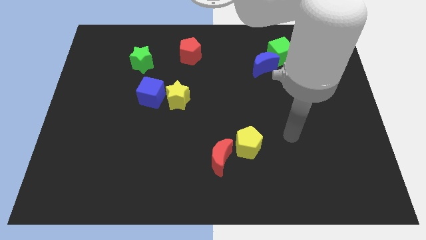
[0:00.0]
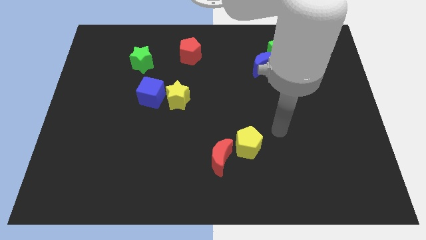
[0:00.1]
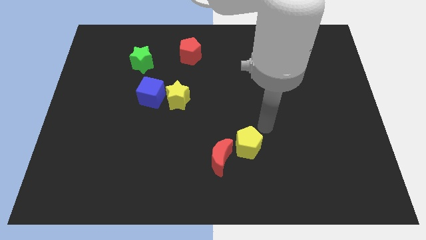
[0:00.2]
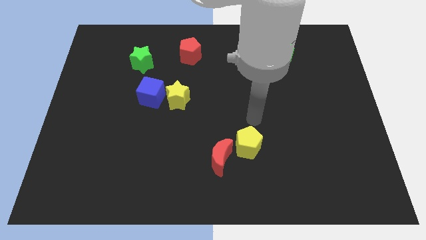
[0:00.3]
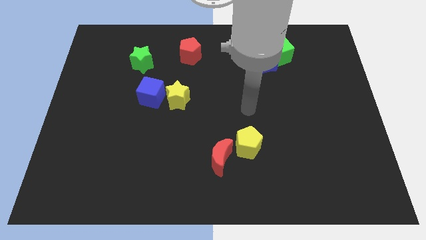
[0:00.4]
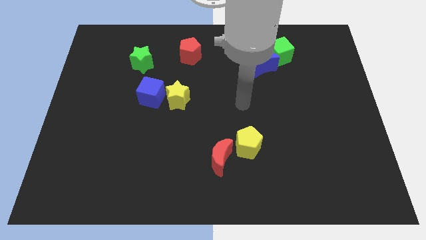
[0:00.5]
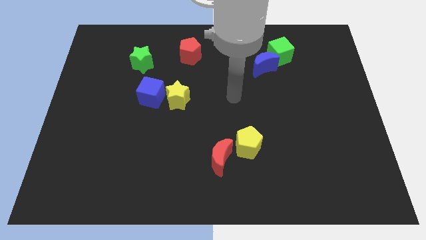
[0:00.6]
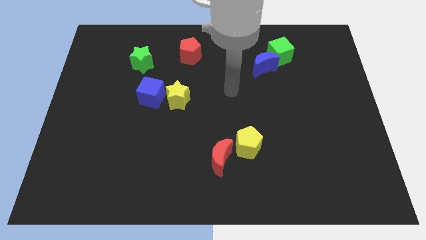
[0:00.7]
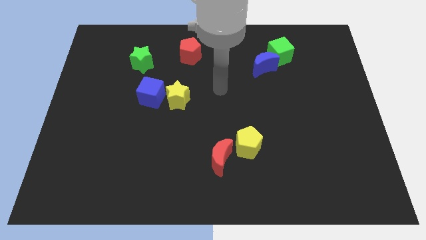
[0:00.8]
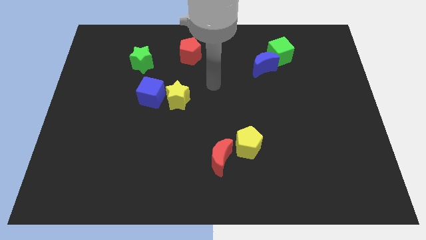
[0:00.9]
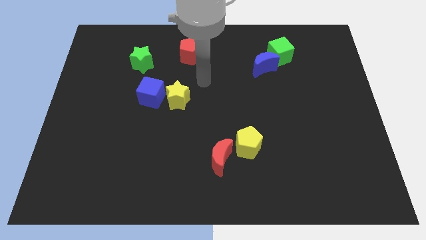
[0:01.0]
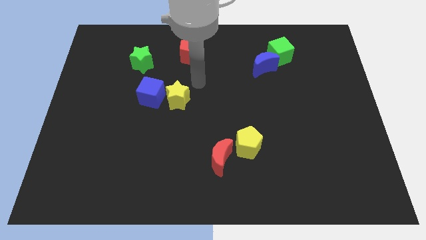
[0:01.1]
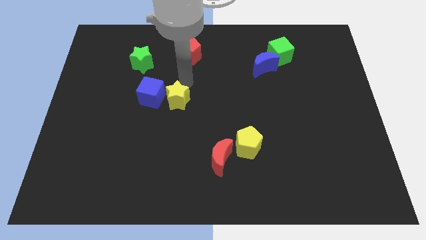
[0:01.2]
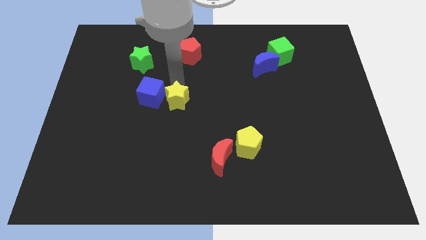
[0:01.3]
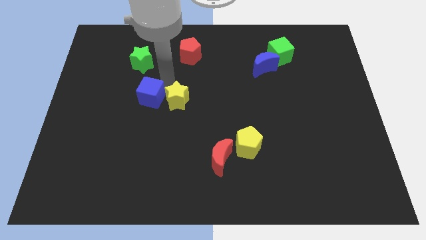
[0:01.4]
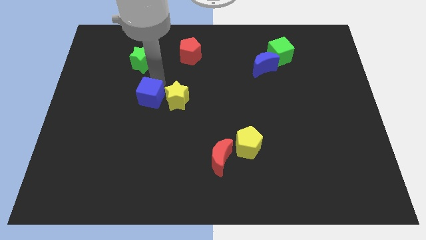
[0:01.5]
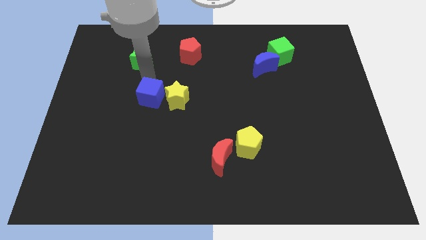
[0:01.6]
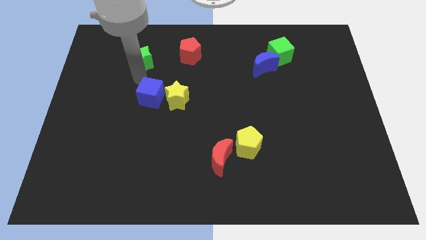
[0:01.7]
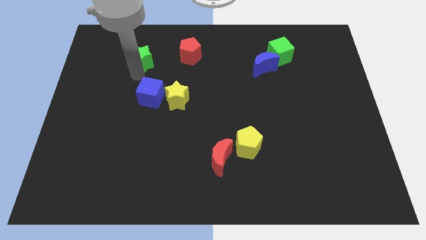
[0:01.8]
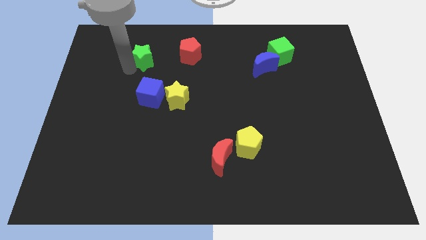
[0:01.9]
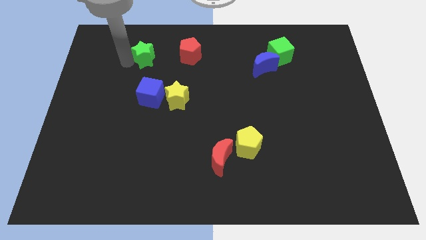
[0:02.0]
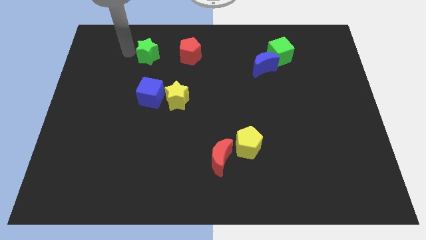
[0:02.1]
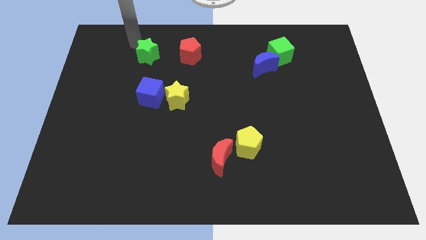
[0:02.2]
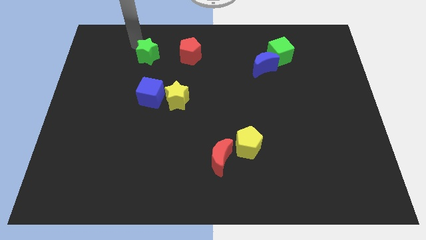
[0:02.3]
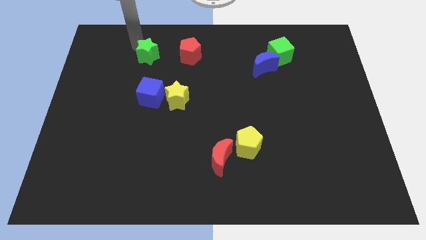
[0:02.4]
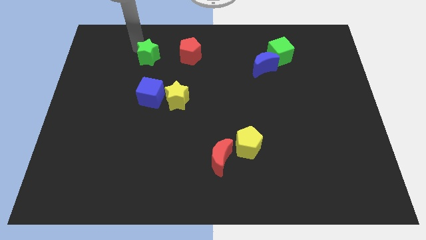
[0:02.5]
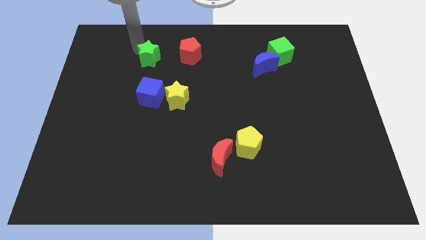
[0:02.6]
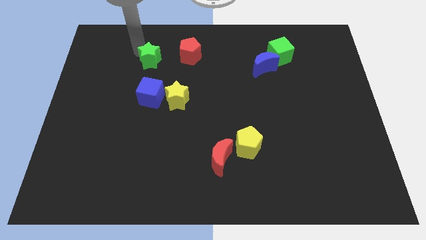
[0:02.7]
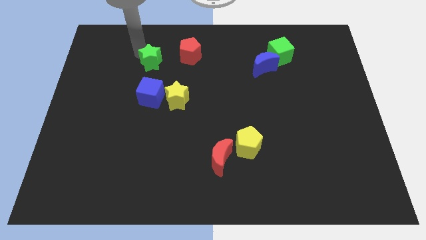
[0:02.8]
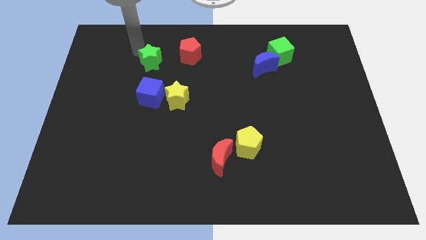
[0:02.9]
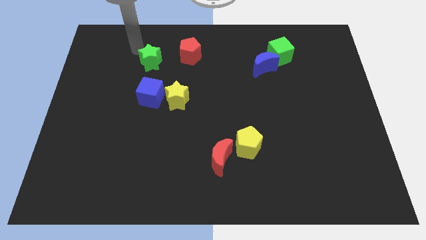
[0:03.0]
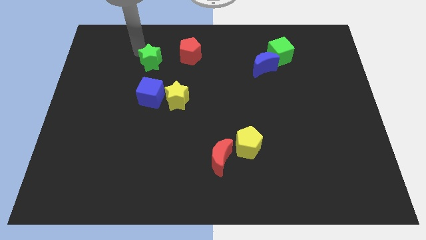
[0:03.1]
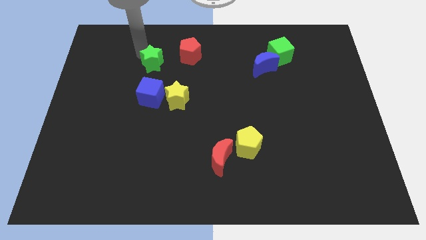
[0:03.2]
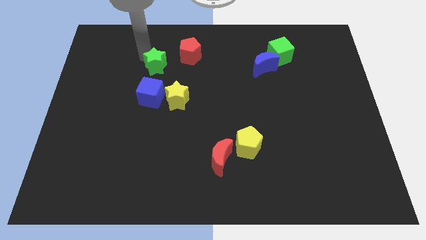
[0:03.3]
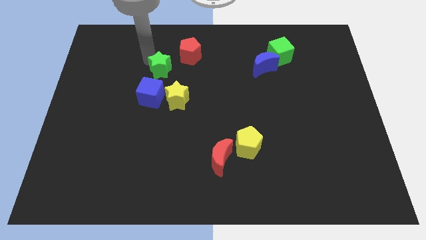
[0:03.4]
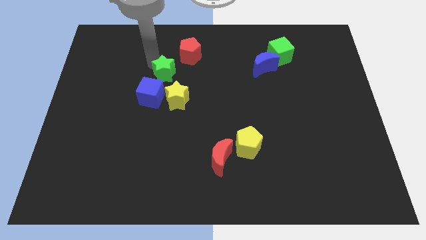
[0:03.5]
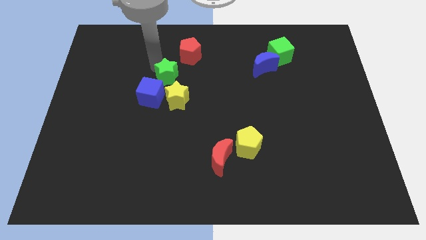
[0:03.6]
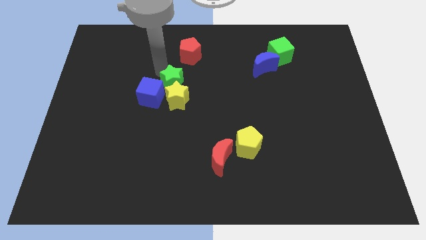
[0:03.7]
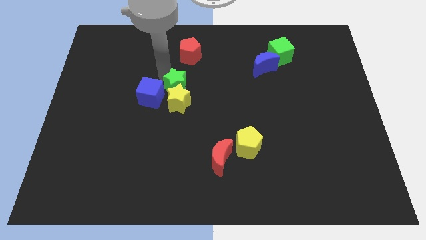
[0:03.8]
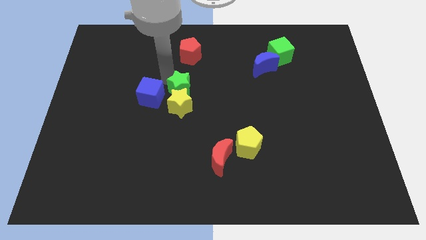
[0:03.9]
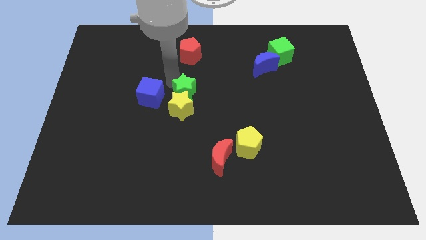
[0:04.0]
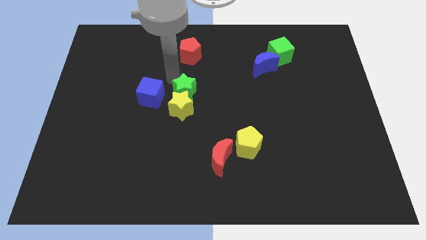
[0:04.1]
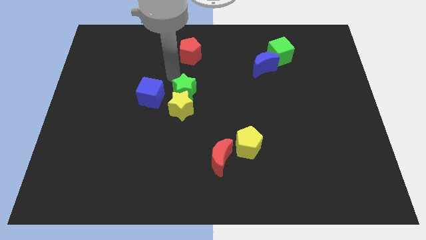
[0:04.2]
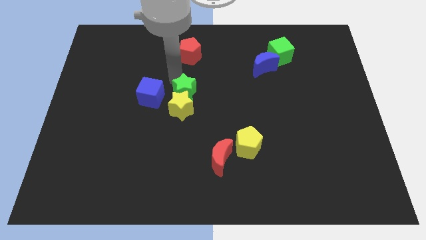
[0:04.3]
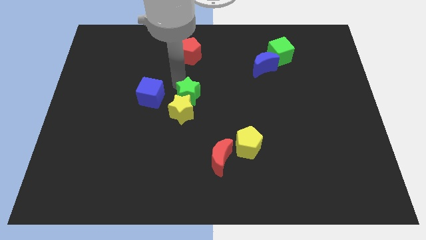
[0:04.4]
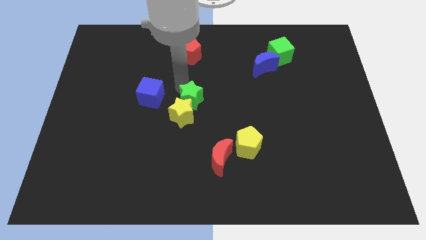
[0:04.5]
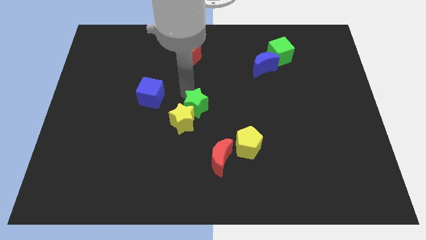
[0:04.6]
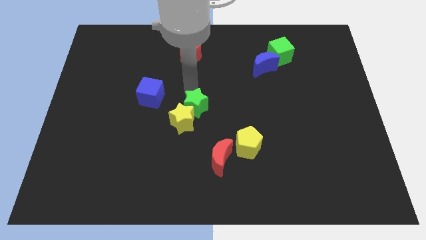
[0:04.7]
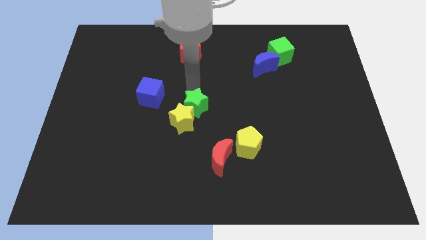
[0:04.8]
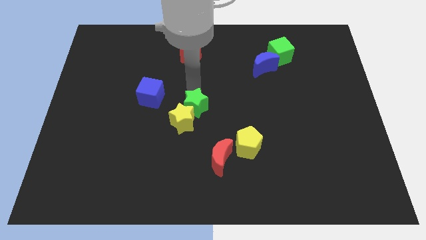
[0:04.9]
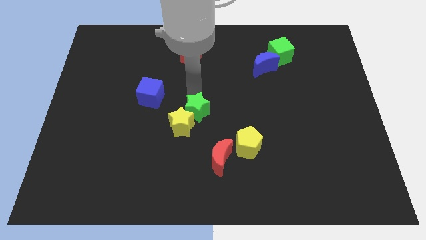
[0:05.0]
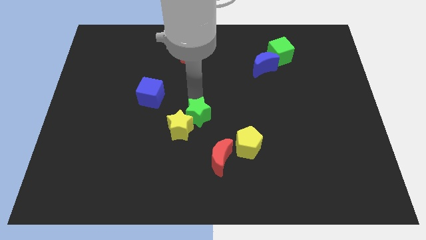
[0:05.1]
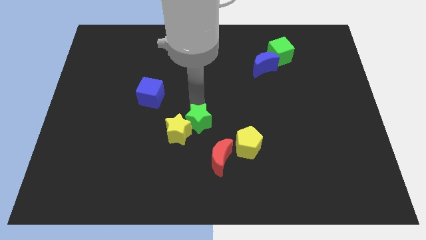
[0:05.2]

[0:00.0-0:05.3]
slide the green star to the top left side of the red moon

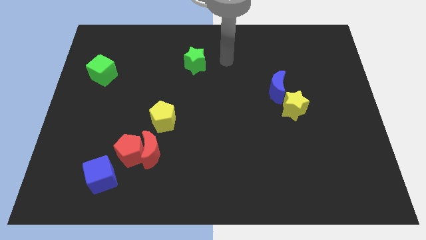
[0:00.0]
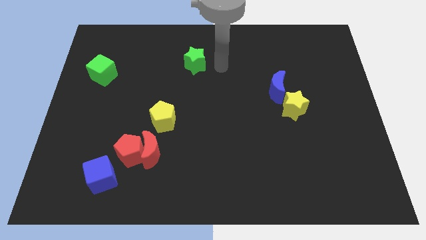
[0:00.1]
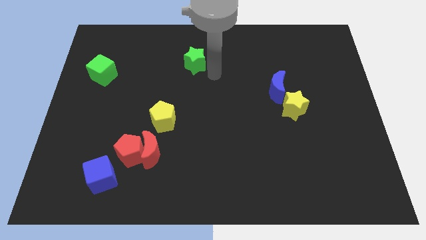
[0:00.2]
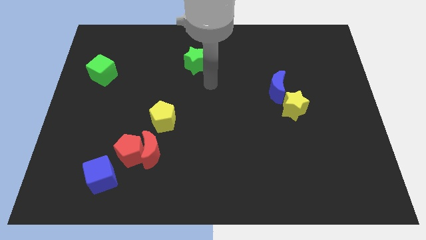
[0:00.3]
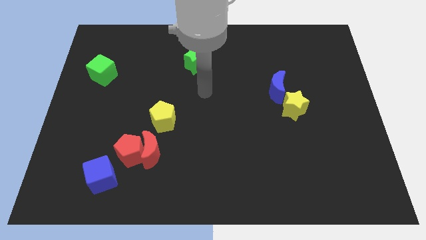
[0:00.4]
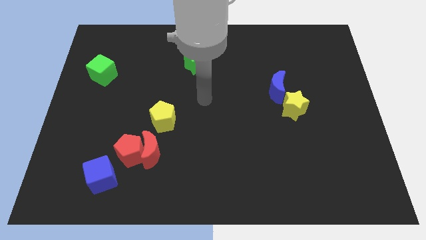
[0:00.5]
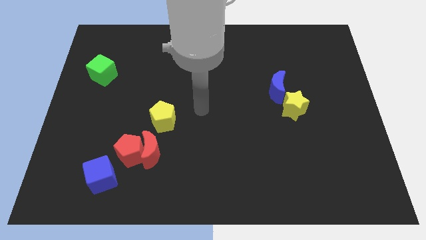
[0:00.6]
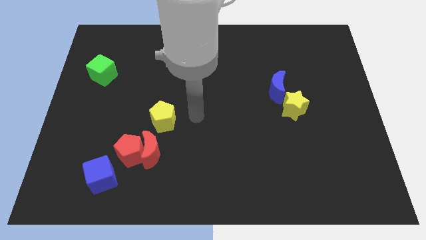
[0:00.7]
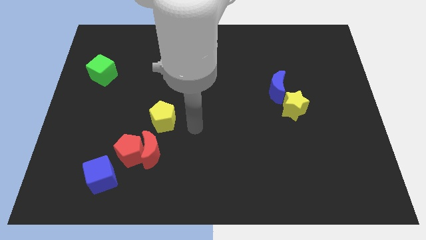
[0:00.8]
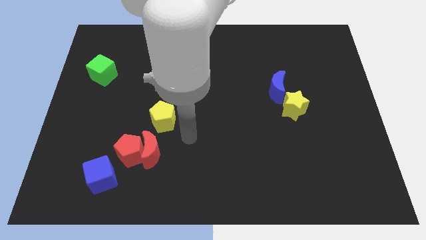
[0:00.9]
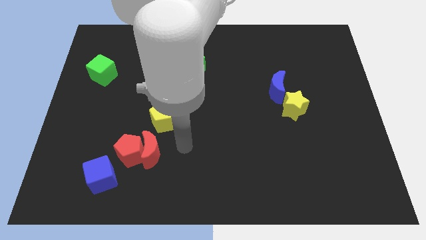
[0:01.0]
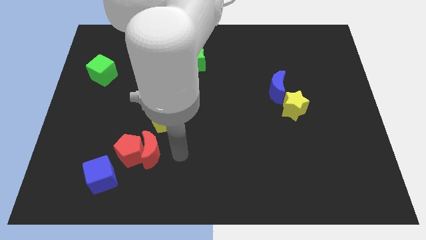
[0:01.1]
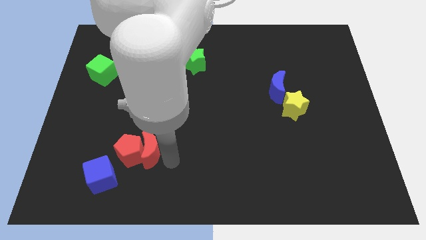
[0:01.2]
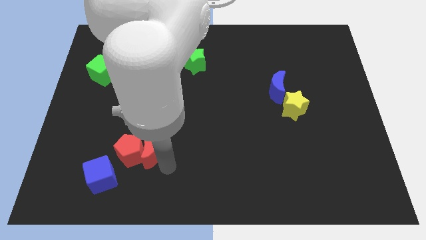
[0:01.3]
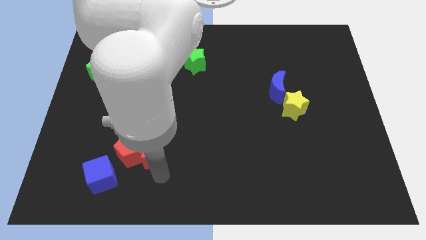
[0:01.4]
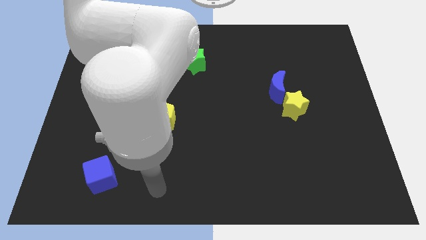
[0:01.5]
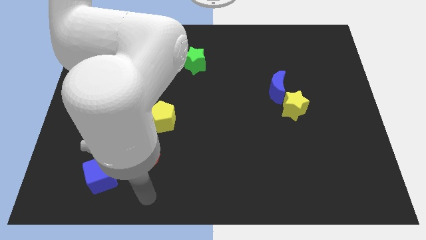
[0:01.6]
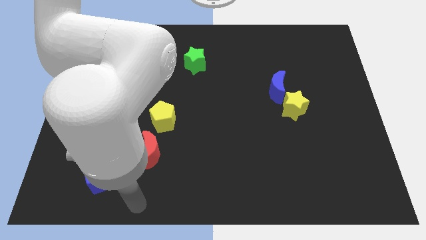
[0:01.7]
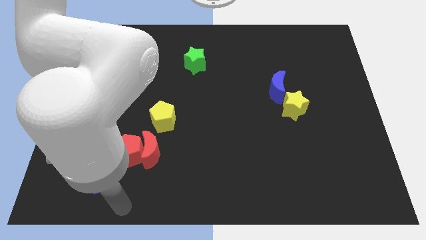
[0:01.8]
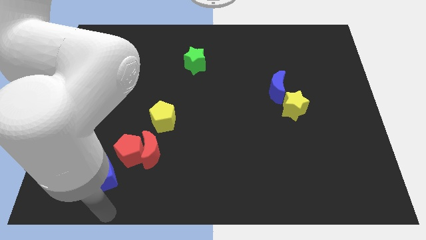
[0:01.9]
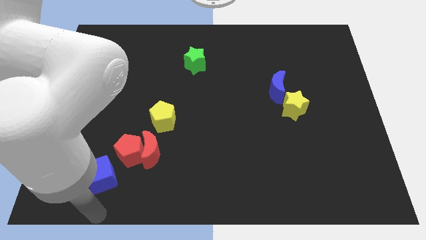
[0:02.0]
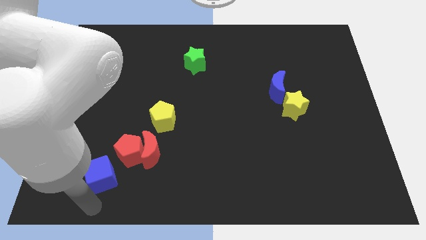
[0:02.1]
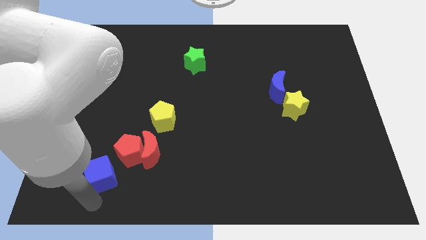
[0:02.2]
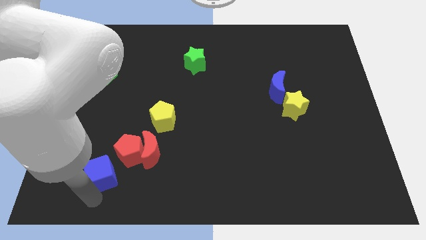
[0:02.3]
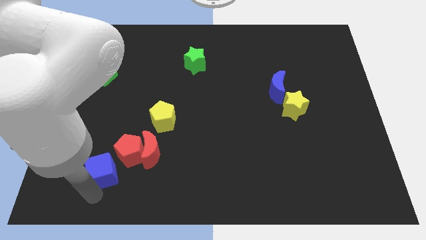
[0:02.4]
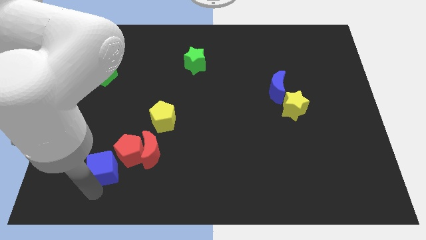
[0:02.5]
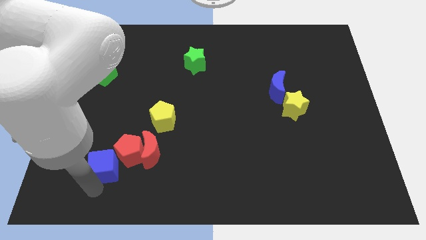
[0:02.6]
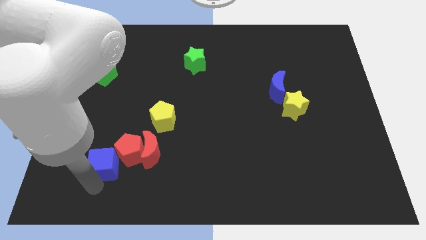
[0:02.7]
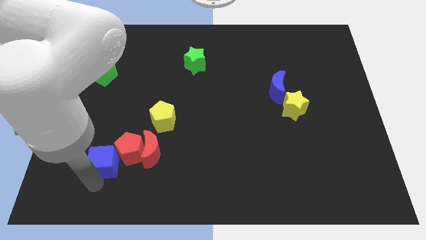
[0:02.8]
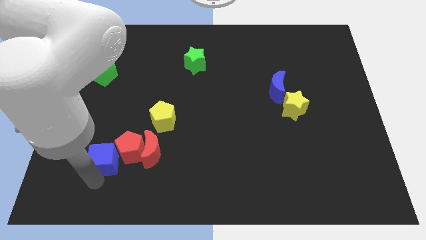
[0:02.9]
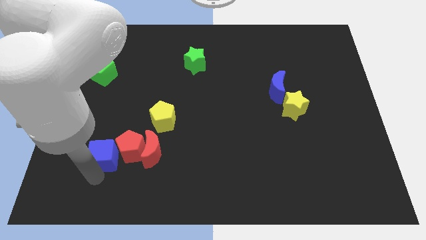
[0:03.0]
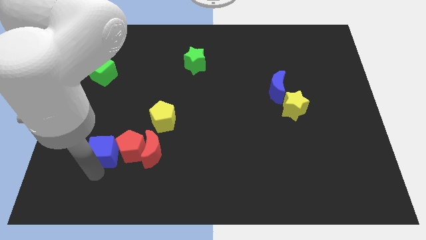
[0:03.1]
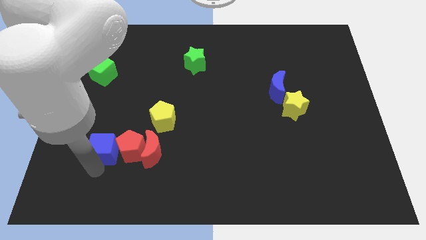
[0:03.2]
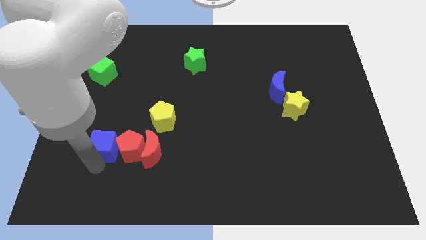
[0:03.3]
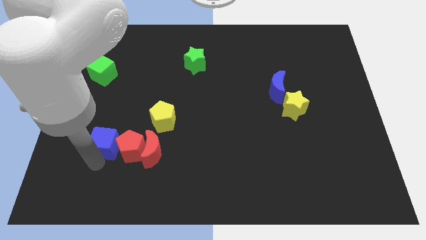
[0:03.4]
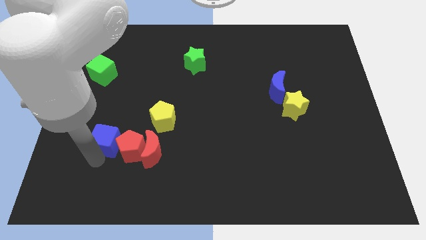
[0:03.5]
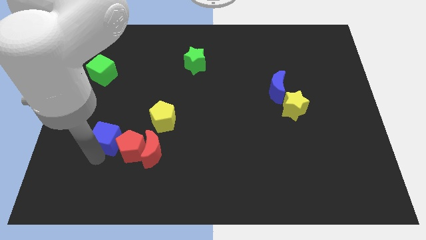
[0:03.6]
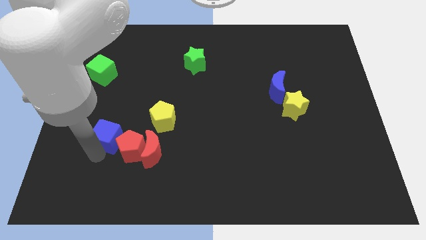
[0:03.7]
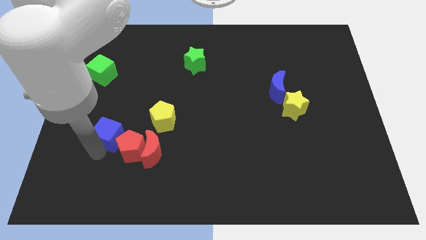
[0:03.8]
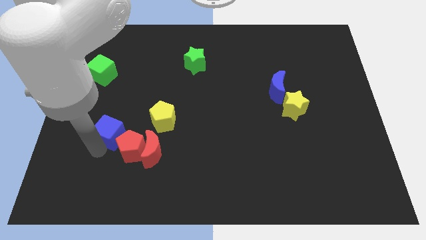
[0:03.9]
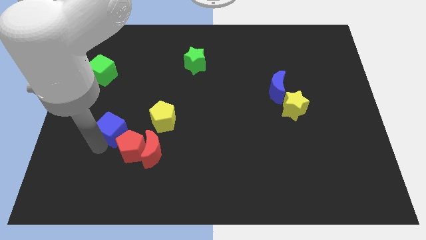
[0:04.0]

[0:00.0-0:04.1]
move the blue cube to the top of the red pentagon
